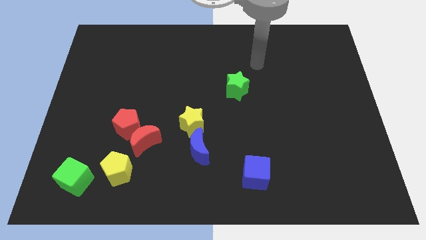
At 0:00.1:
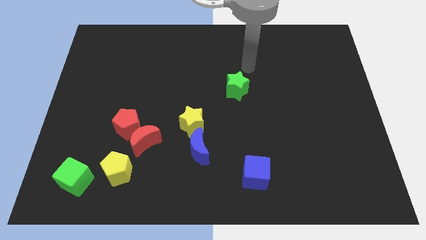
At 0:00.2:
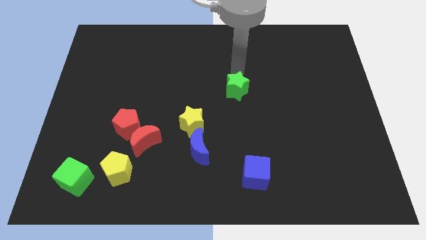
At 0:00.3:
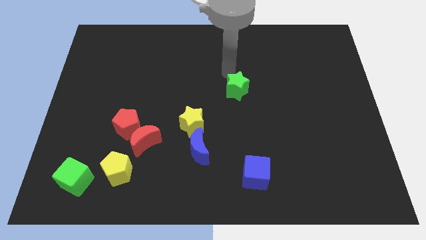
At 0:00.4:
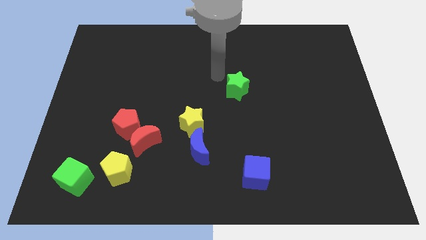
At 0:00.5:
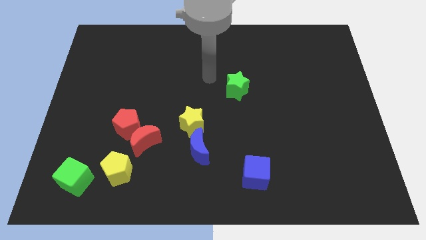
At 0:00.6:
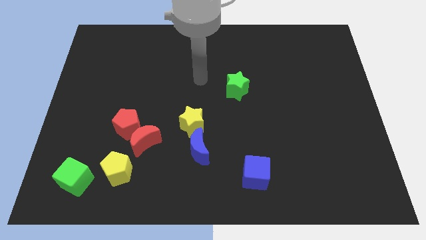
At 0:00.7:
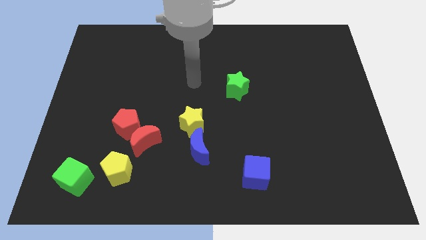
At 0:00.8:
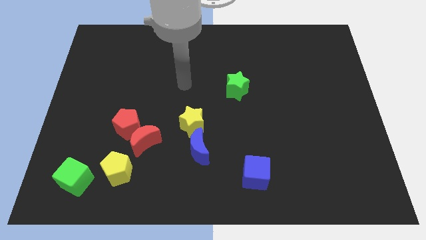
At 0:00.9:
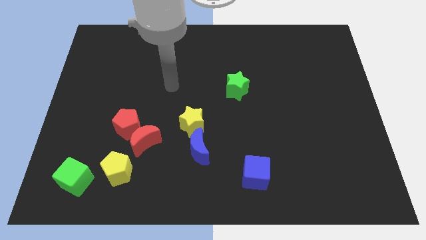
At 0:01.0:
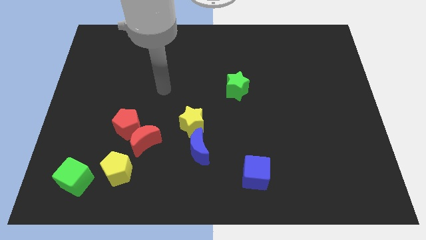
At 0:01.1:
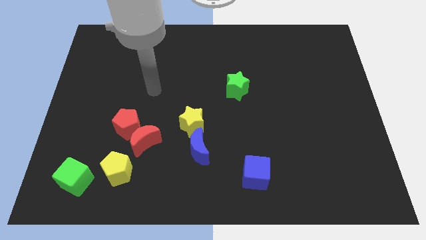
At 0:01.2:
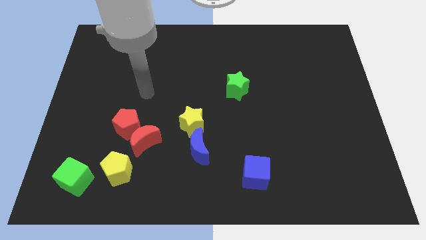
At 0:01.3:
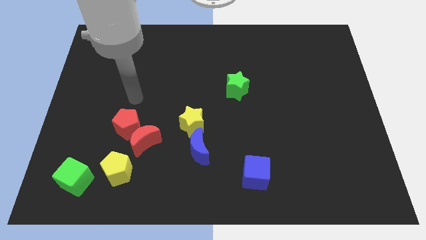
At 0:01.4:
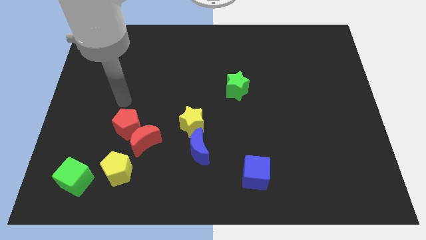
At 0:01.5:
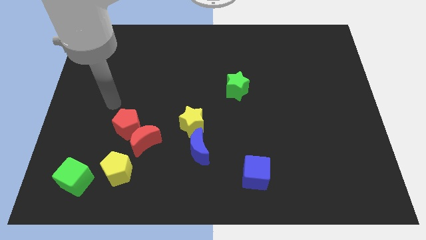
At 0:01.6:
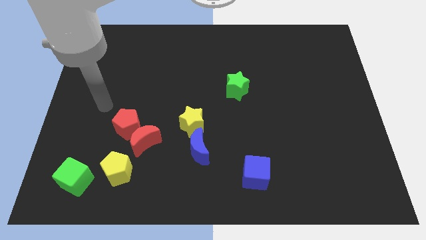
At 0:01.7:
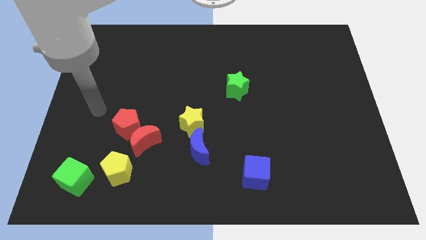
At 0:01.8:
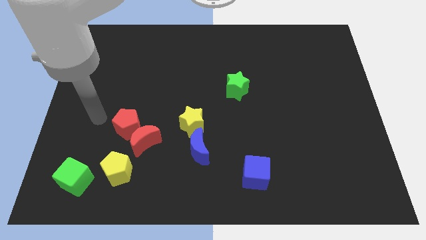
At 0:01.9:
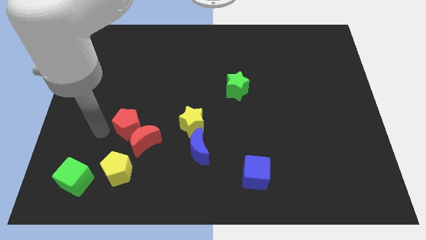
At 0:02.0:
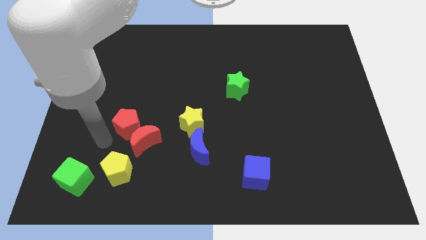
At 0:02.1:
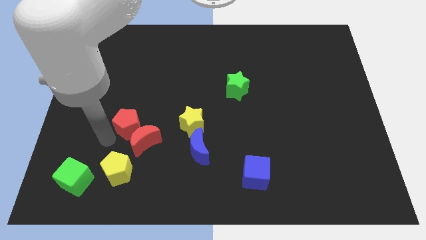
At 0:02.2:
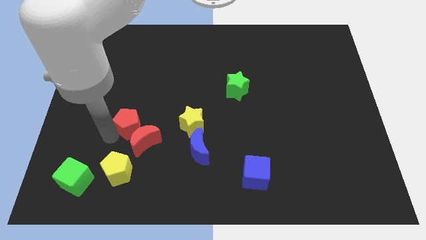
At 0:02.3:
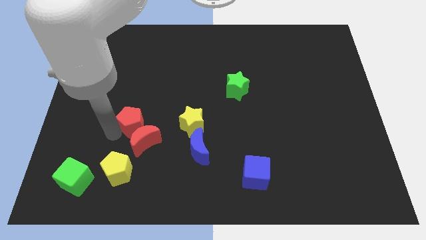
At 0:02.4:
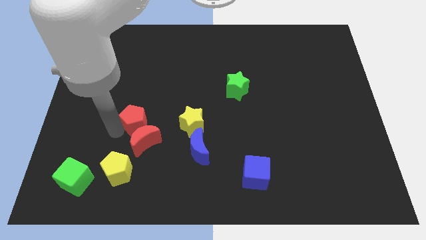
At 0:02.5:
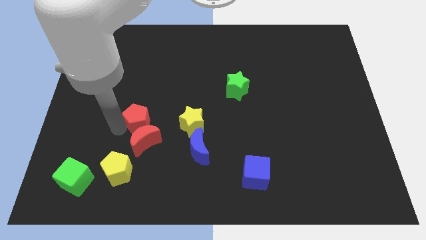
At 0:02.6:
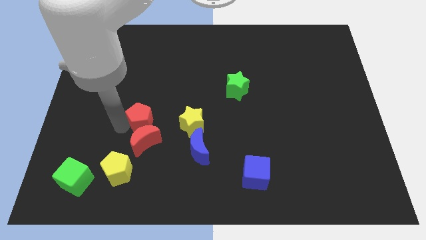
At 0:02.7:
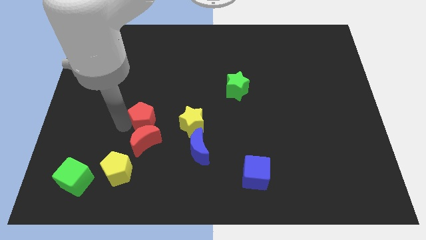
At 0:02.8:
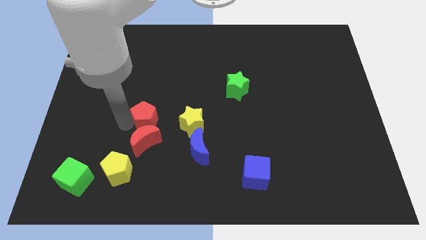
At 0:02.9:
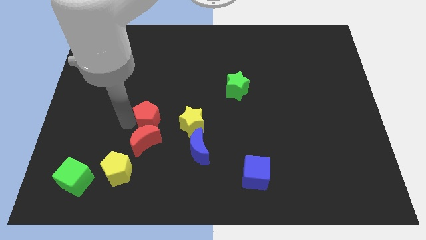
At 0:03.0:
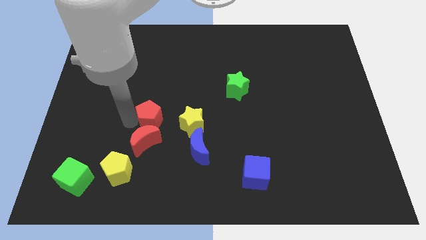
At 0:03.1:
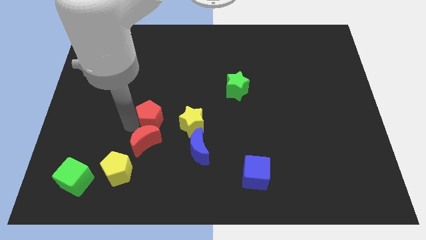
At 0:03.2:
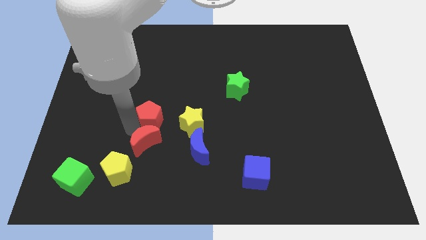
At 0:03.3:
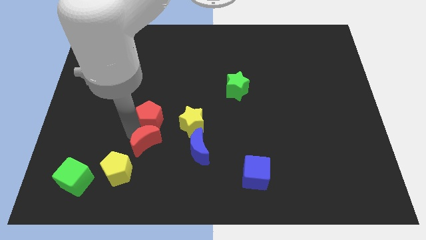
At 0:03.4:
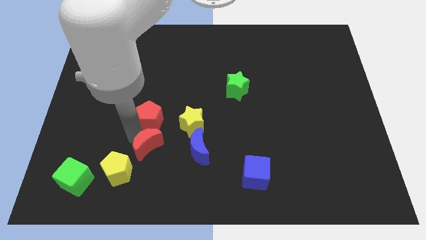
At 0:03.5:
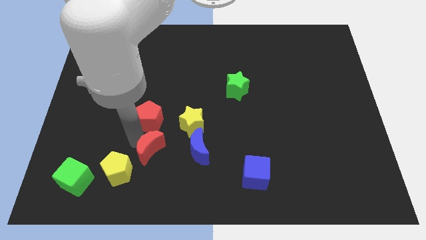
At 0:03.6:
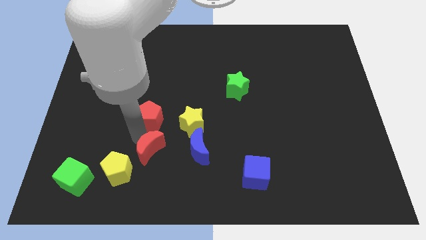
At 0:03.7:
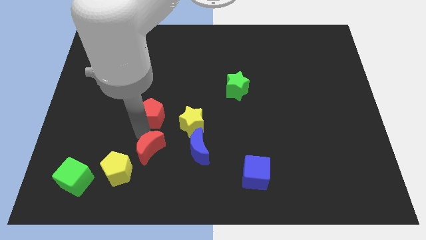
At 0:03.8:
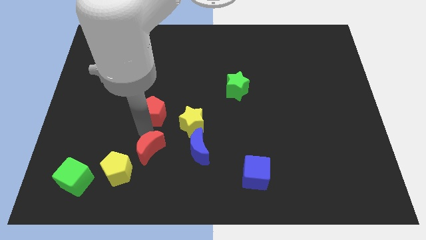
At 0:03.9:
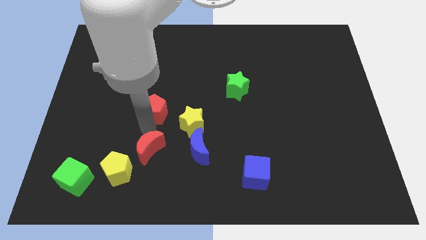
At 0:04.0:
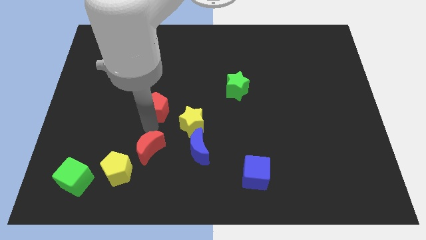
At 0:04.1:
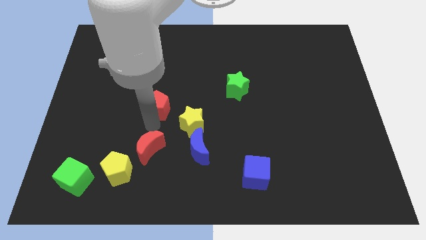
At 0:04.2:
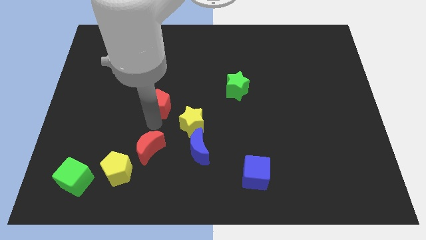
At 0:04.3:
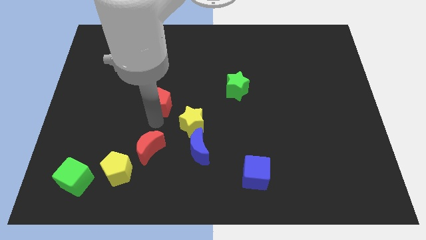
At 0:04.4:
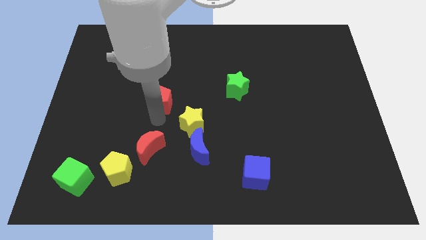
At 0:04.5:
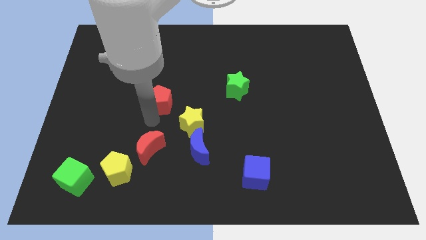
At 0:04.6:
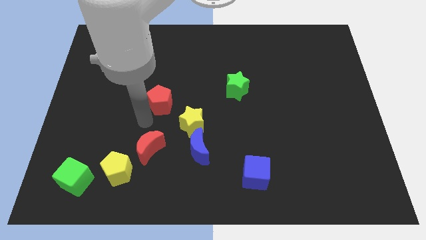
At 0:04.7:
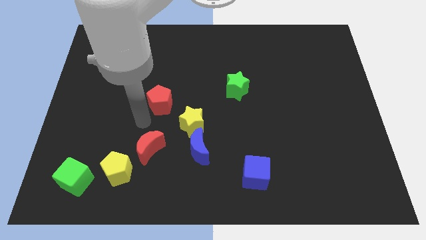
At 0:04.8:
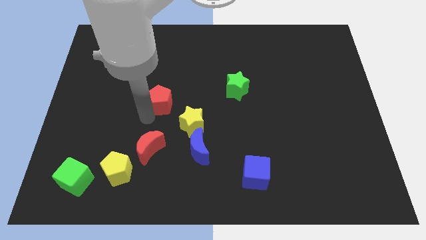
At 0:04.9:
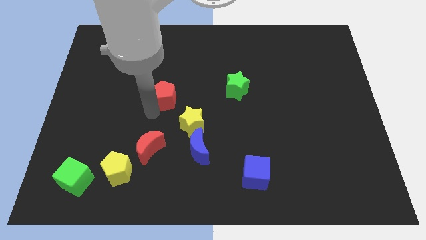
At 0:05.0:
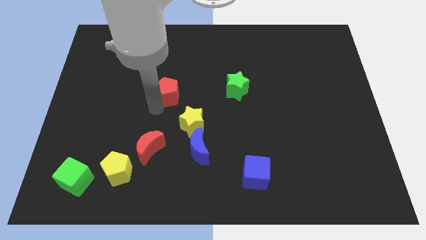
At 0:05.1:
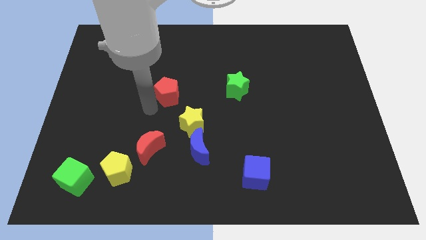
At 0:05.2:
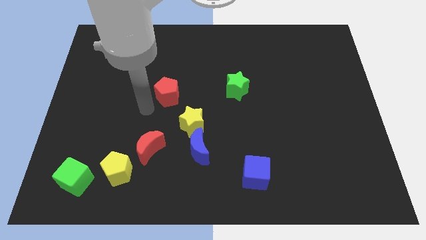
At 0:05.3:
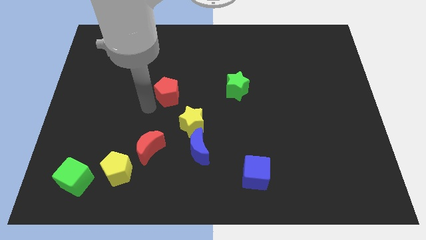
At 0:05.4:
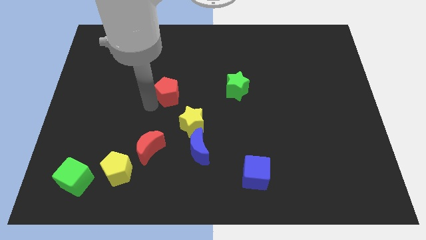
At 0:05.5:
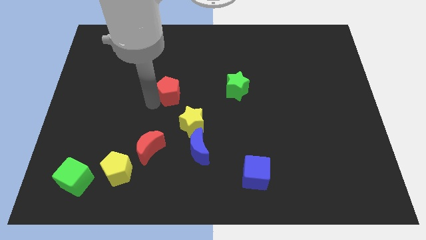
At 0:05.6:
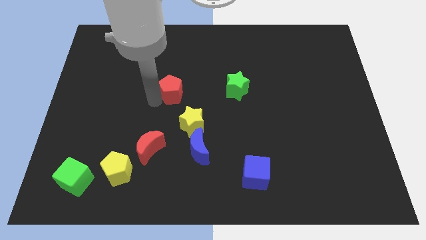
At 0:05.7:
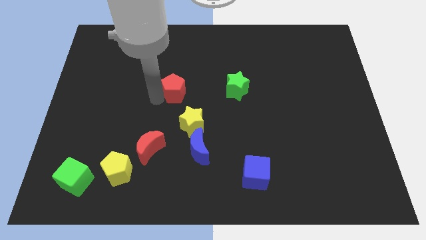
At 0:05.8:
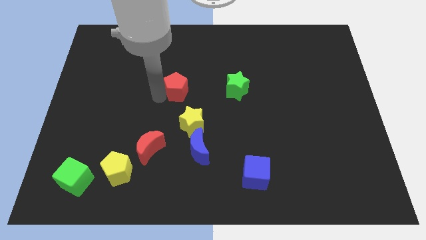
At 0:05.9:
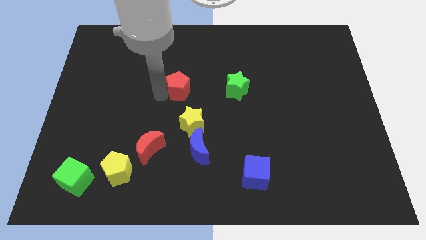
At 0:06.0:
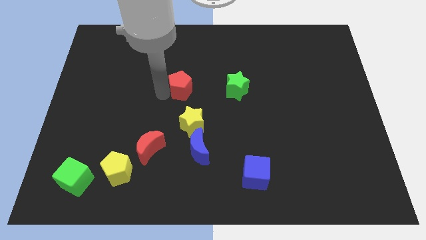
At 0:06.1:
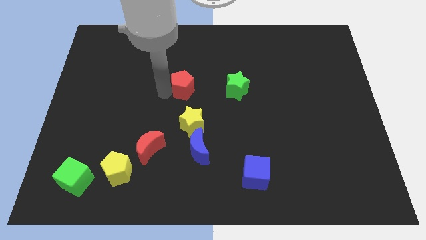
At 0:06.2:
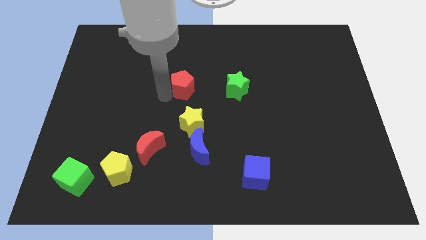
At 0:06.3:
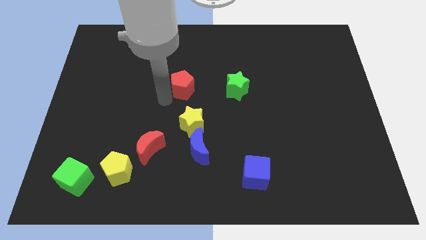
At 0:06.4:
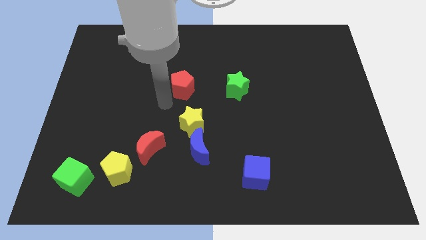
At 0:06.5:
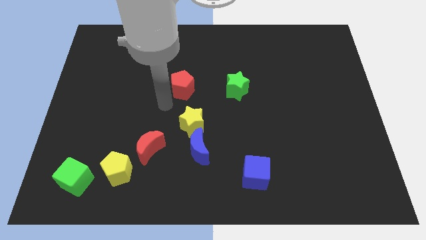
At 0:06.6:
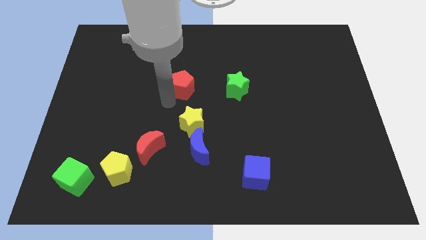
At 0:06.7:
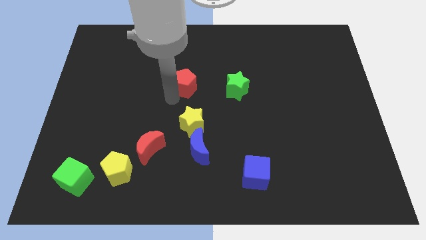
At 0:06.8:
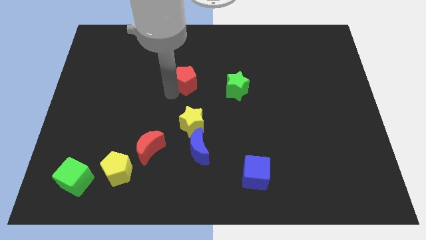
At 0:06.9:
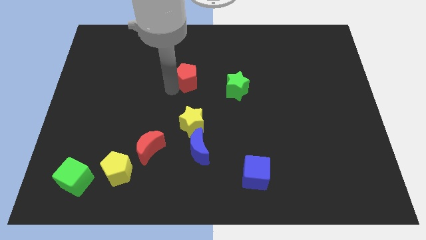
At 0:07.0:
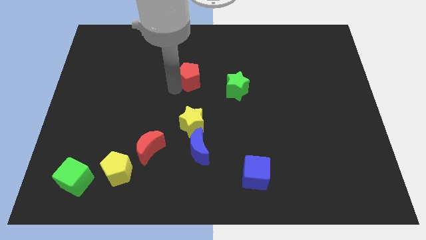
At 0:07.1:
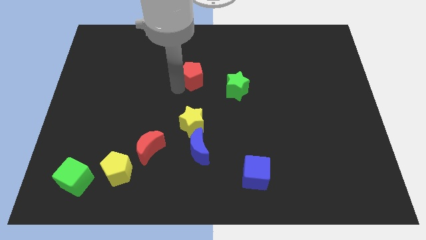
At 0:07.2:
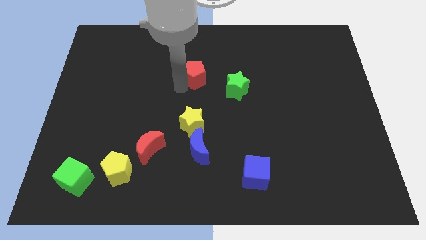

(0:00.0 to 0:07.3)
slide the red pentagon to the top left of the green star
